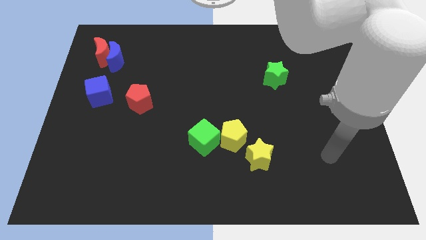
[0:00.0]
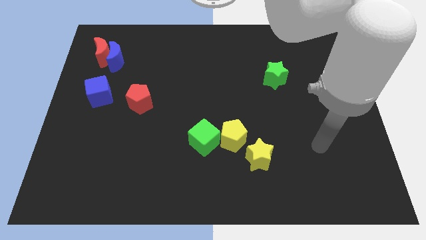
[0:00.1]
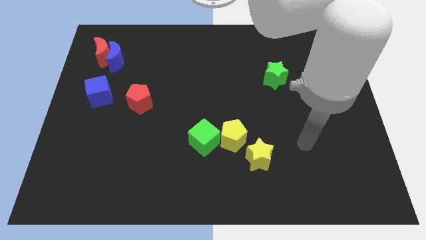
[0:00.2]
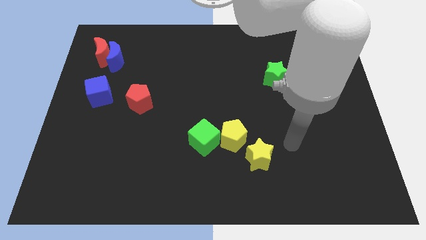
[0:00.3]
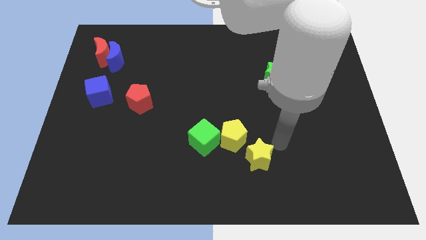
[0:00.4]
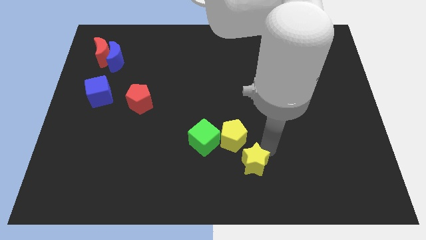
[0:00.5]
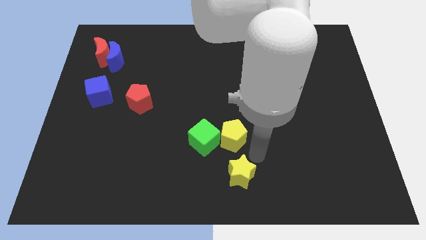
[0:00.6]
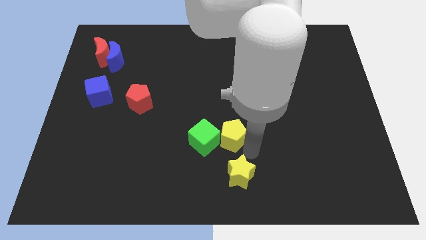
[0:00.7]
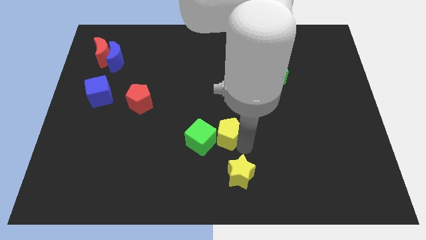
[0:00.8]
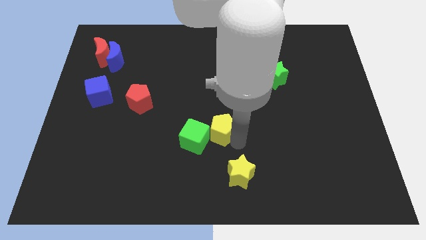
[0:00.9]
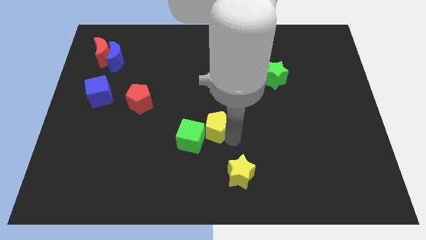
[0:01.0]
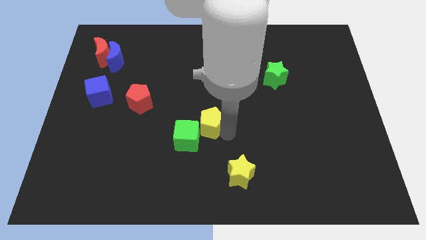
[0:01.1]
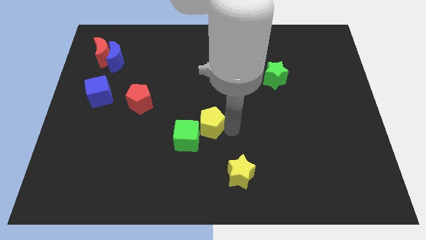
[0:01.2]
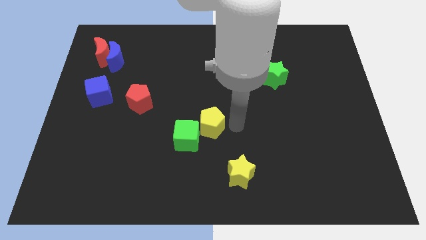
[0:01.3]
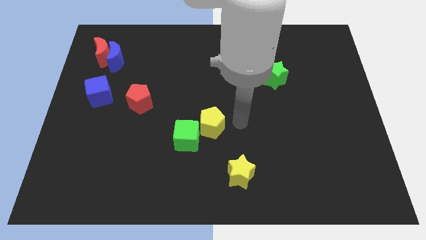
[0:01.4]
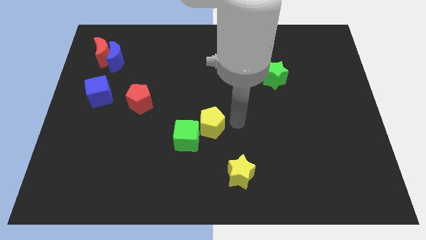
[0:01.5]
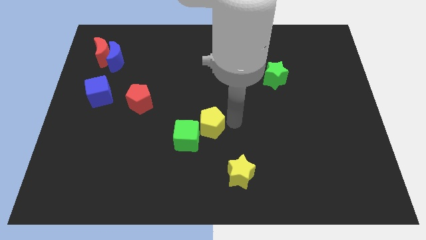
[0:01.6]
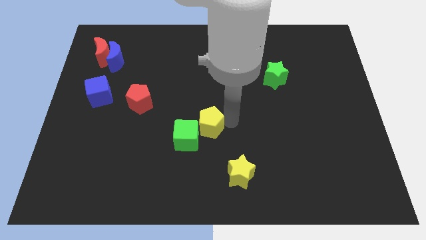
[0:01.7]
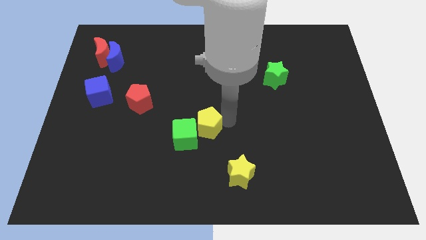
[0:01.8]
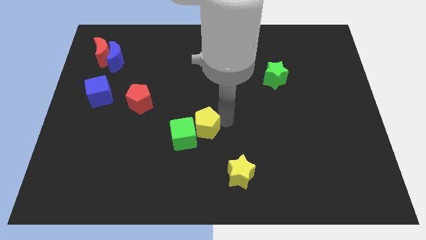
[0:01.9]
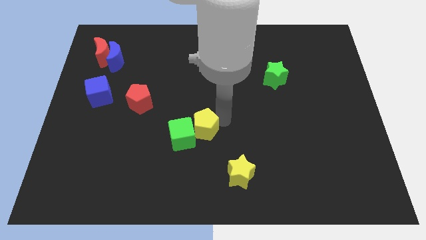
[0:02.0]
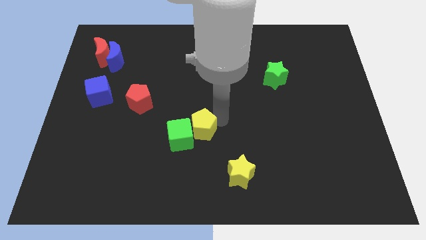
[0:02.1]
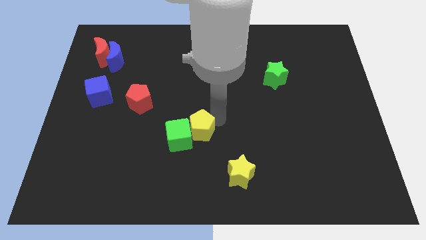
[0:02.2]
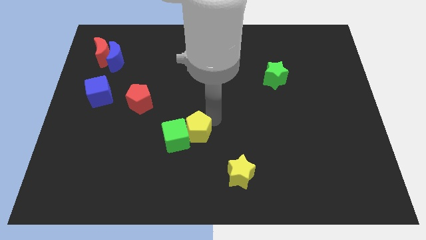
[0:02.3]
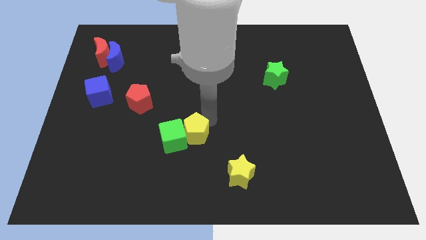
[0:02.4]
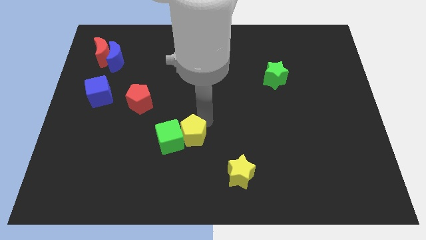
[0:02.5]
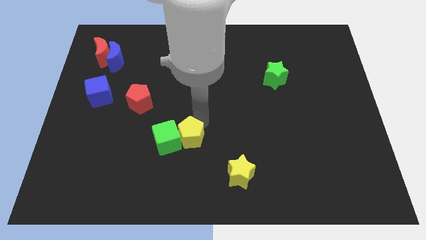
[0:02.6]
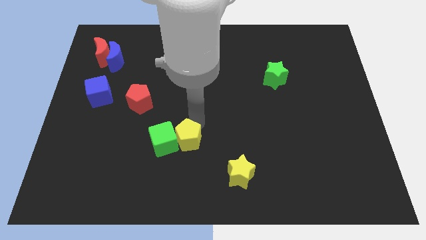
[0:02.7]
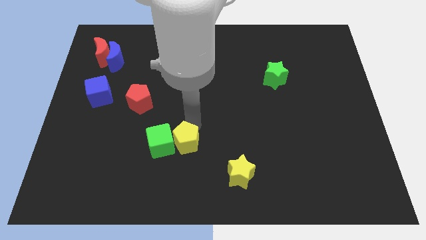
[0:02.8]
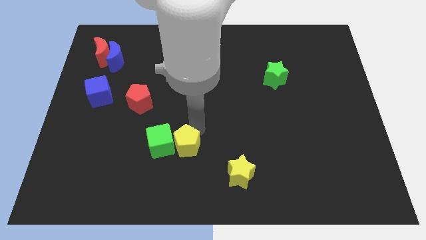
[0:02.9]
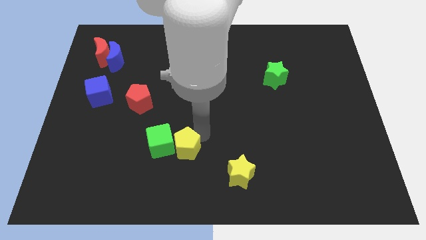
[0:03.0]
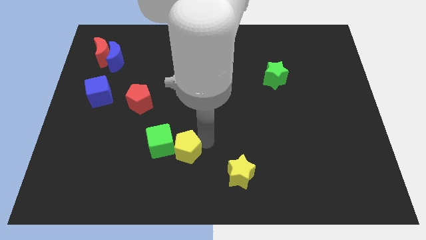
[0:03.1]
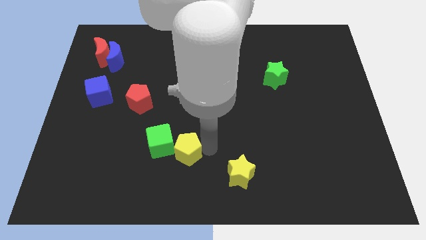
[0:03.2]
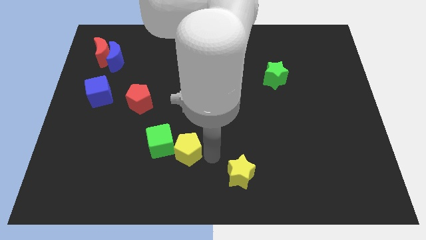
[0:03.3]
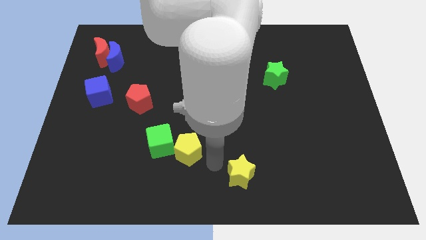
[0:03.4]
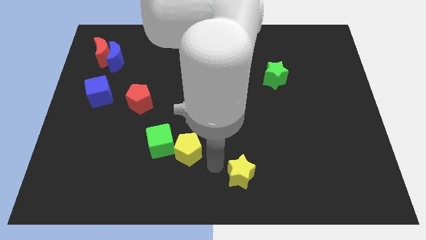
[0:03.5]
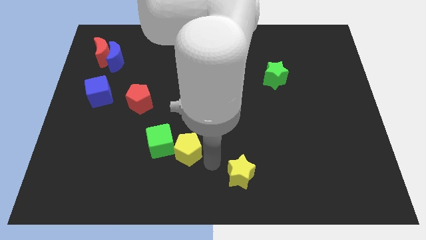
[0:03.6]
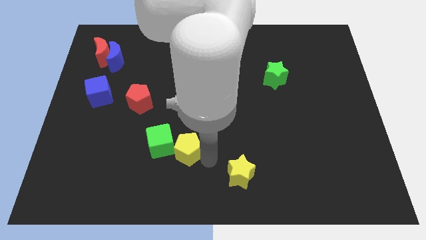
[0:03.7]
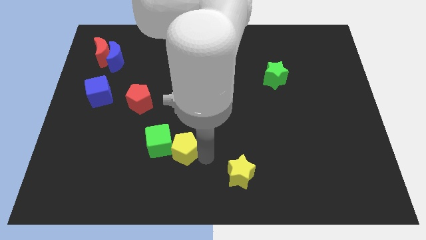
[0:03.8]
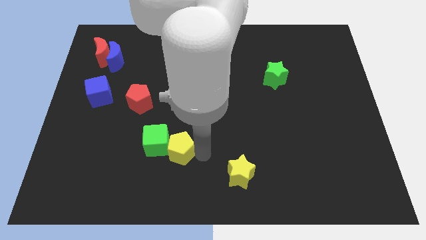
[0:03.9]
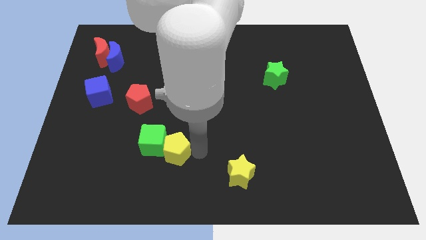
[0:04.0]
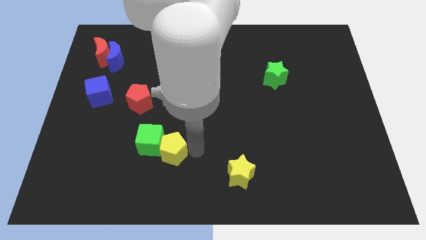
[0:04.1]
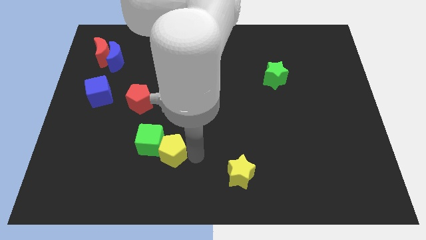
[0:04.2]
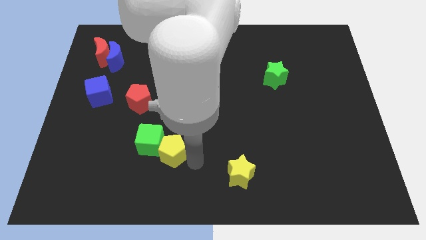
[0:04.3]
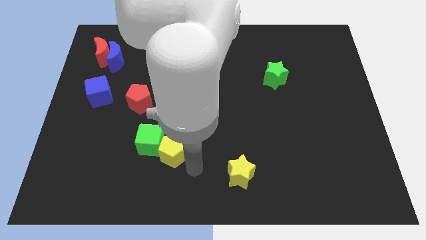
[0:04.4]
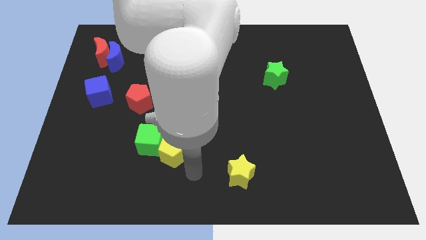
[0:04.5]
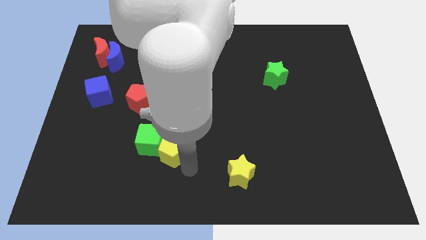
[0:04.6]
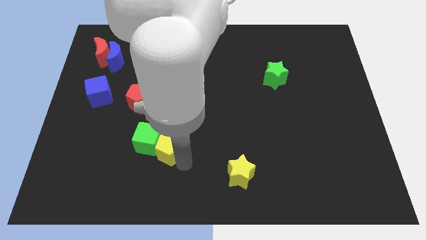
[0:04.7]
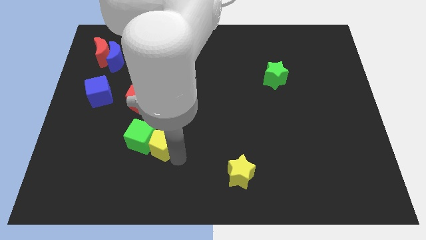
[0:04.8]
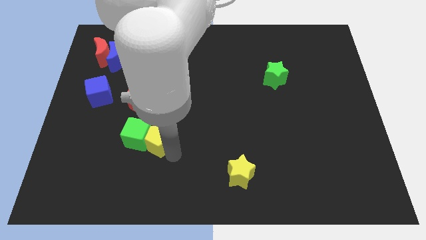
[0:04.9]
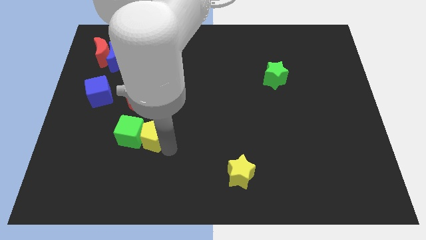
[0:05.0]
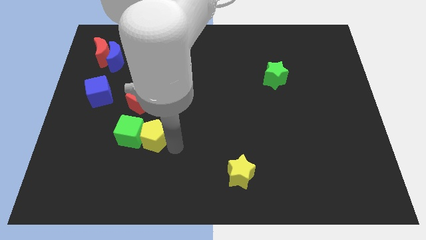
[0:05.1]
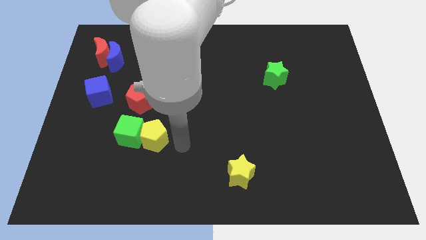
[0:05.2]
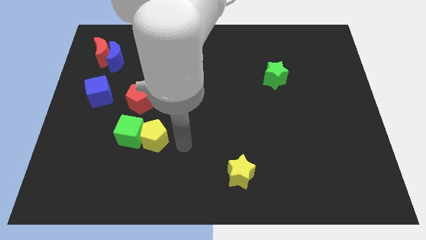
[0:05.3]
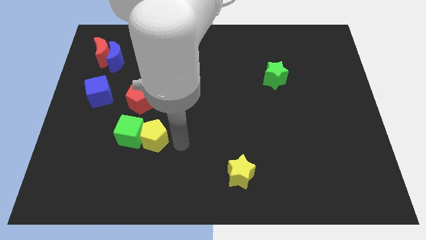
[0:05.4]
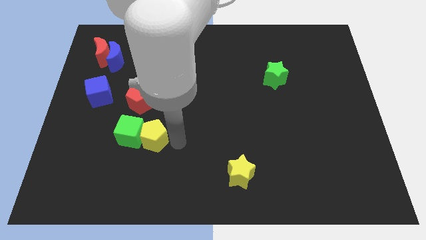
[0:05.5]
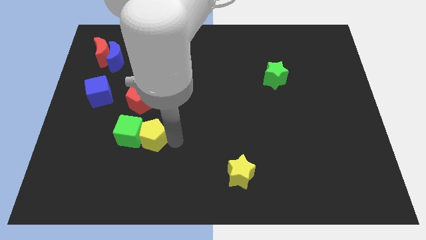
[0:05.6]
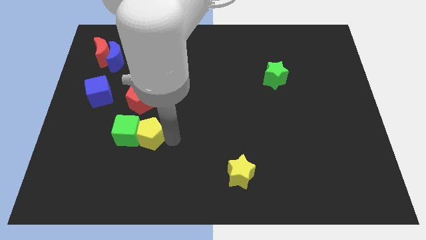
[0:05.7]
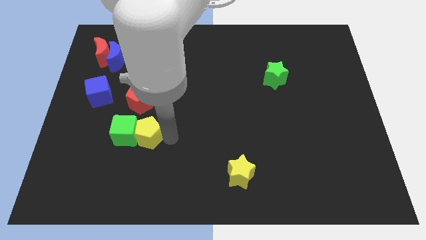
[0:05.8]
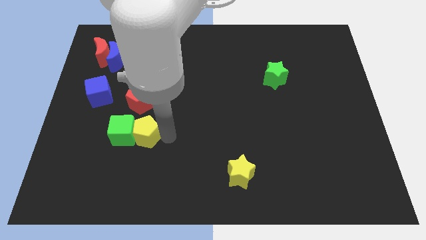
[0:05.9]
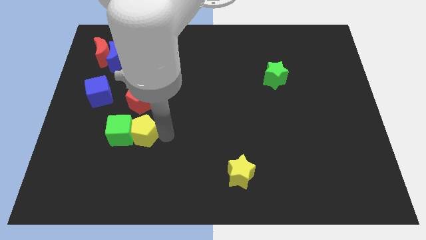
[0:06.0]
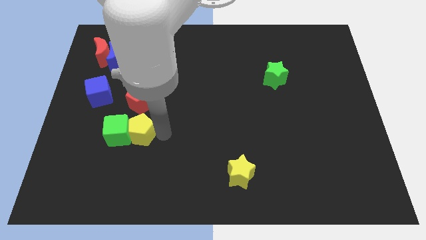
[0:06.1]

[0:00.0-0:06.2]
push the yellow pentagon left

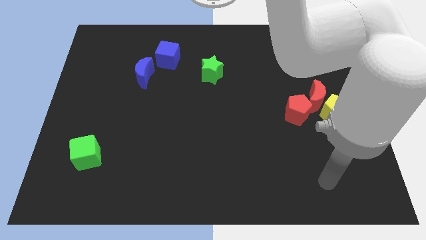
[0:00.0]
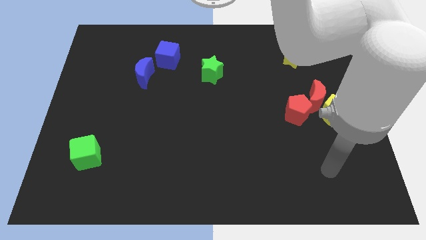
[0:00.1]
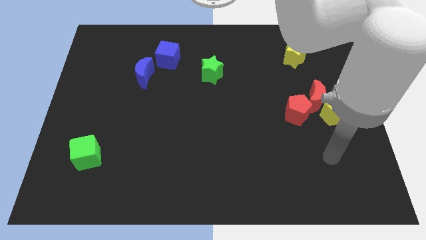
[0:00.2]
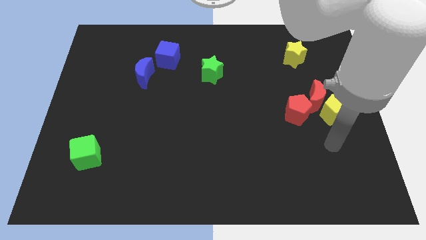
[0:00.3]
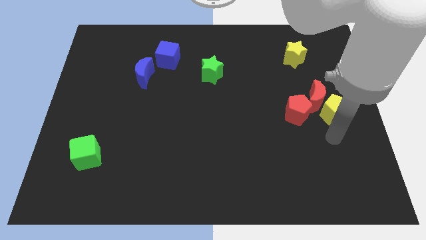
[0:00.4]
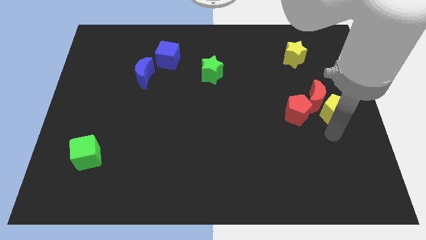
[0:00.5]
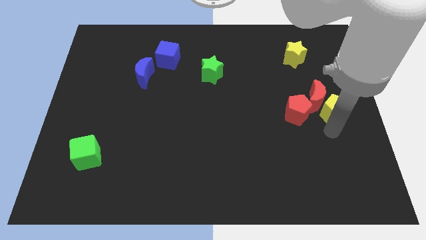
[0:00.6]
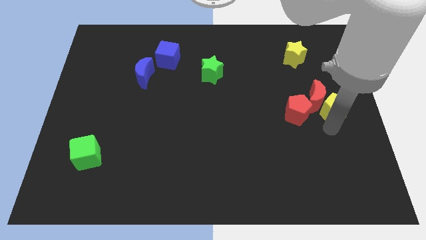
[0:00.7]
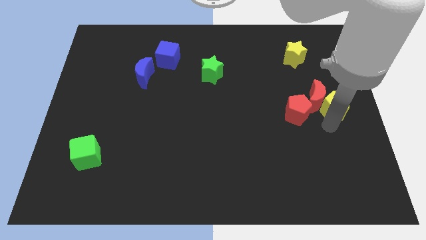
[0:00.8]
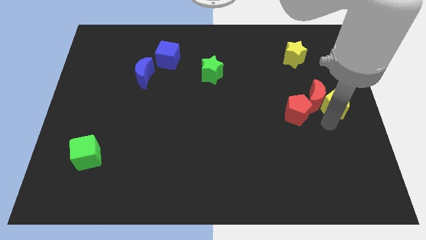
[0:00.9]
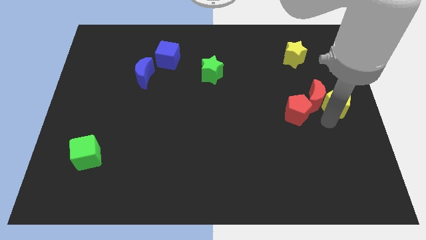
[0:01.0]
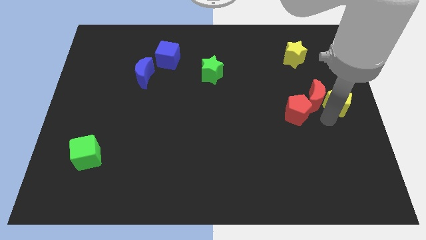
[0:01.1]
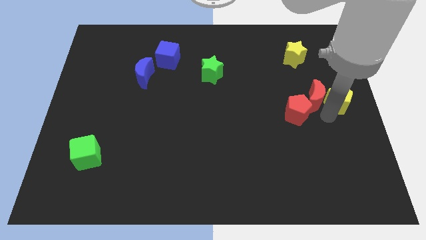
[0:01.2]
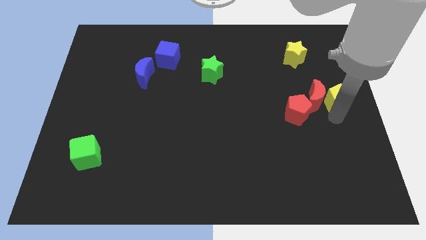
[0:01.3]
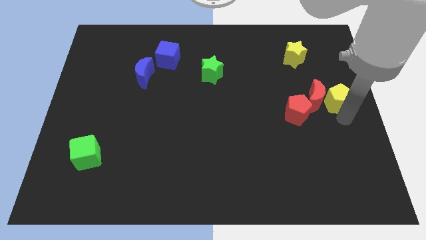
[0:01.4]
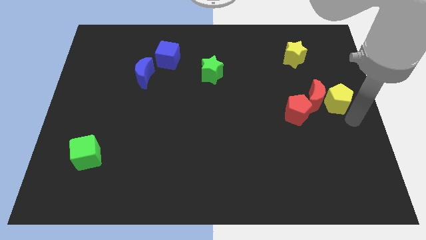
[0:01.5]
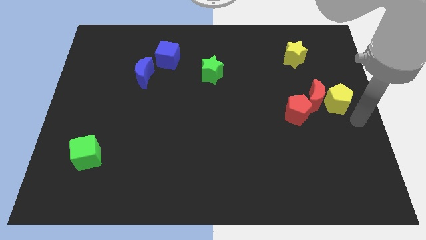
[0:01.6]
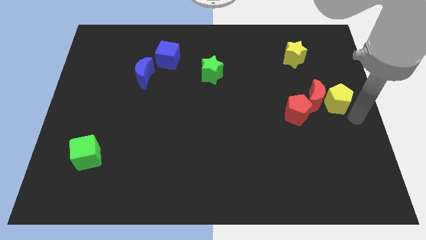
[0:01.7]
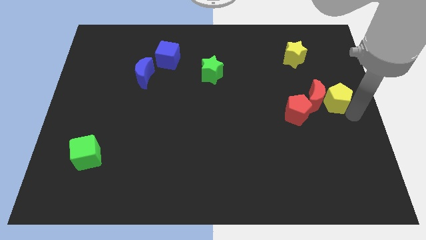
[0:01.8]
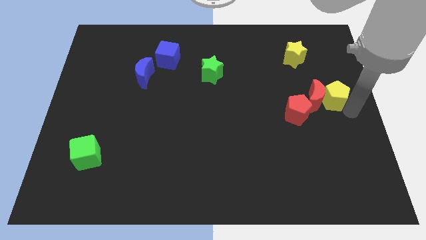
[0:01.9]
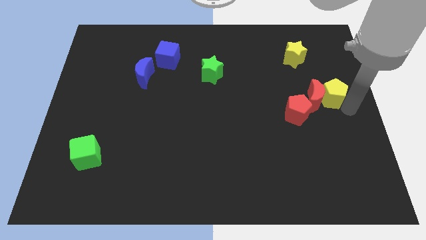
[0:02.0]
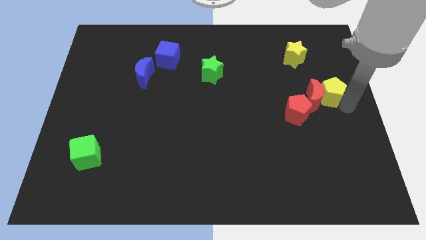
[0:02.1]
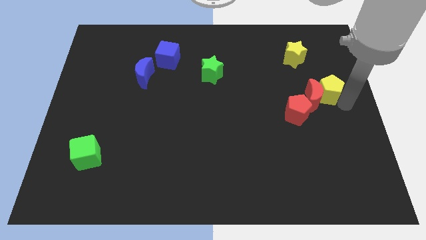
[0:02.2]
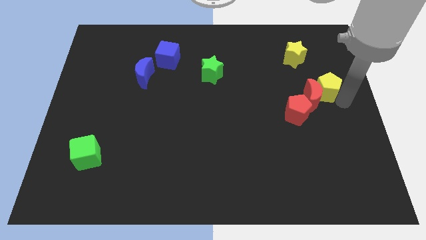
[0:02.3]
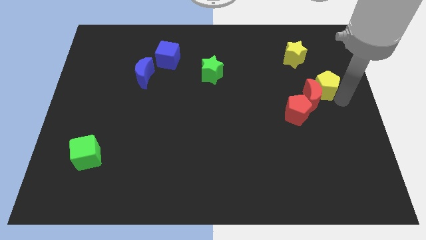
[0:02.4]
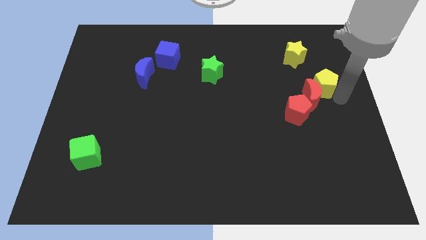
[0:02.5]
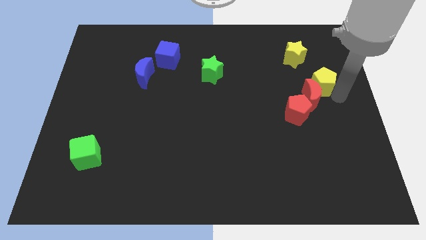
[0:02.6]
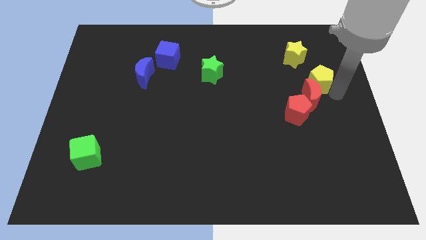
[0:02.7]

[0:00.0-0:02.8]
slide the yellow pentagon up and left diagonally a bit
